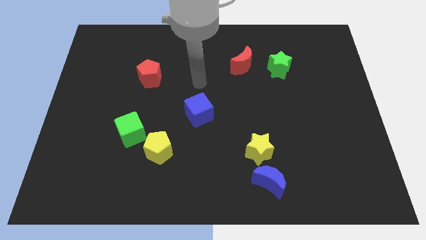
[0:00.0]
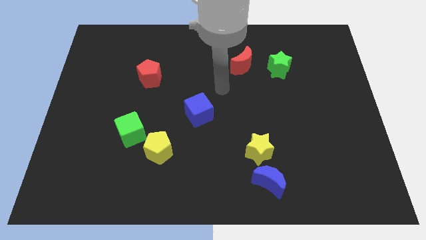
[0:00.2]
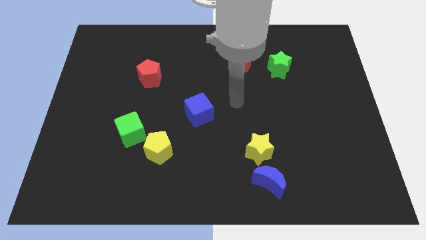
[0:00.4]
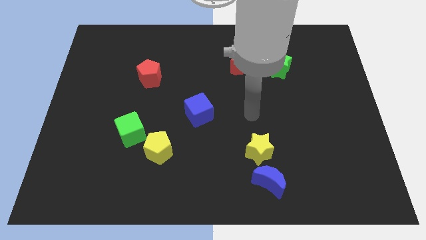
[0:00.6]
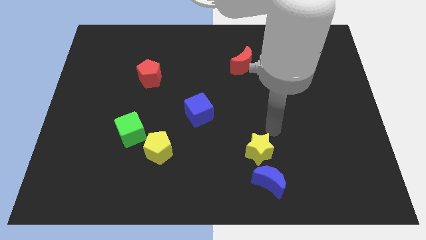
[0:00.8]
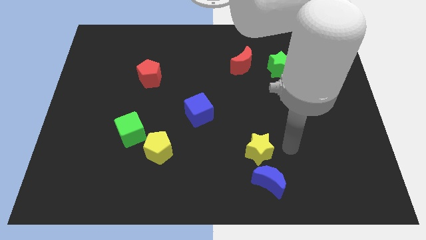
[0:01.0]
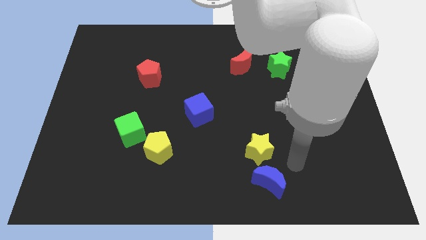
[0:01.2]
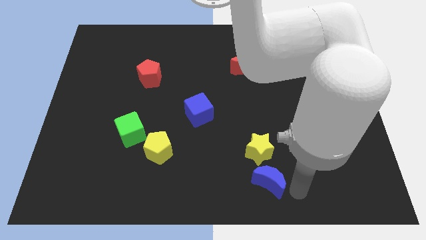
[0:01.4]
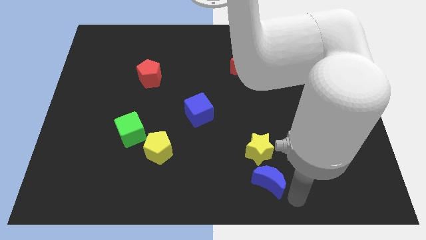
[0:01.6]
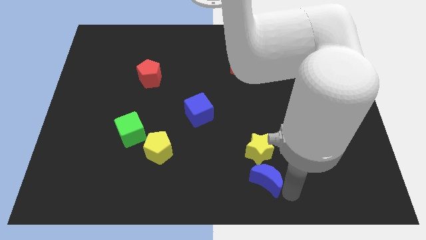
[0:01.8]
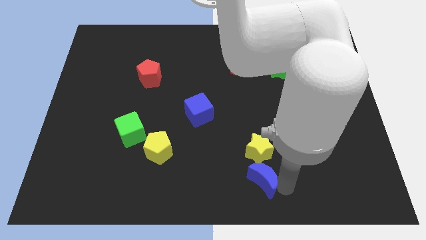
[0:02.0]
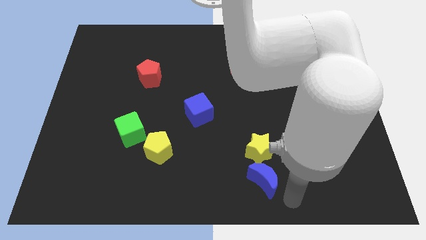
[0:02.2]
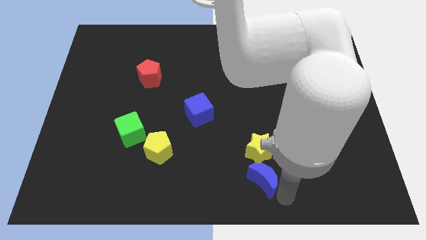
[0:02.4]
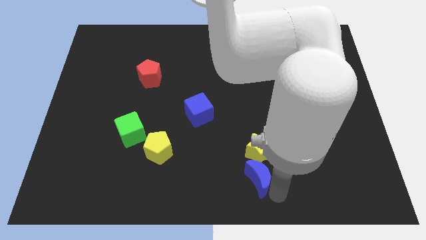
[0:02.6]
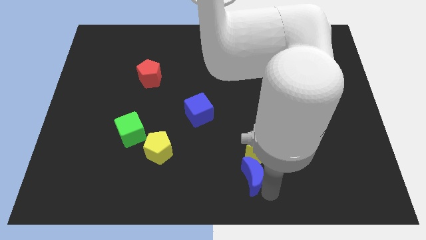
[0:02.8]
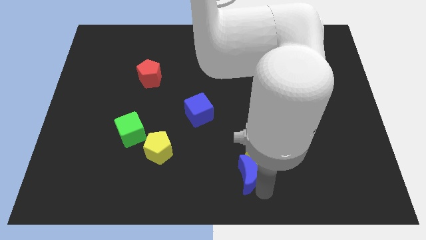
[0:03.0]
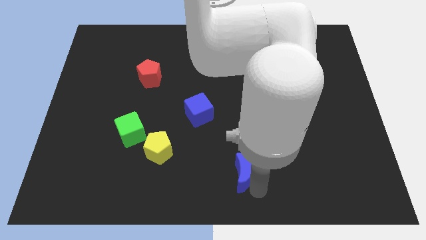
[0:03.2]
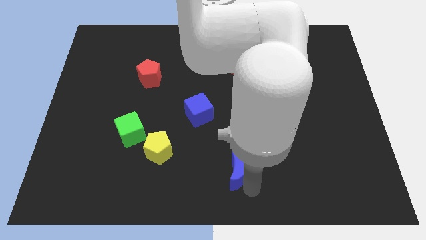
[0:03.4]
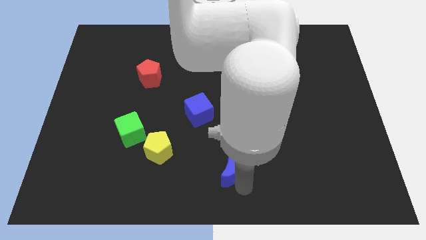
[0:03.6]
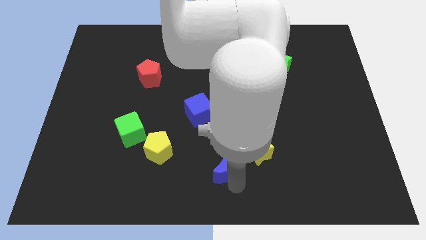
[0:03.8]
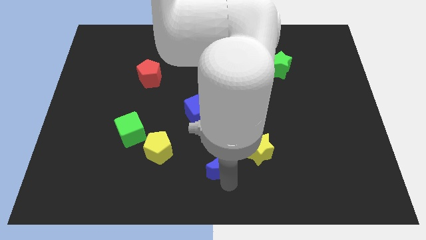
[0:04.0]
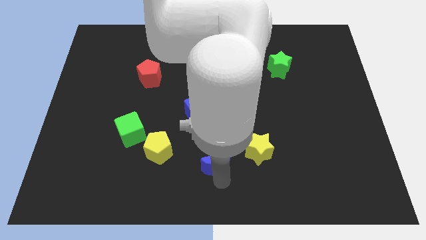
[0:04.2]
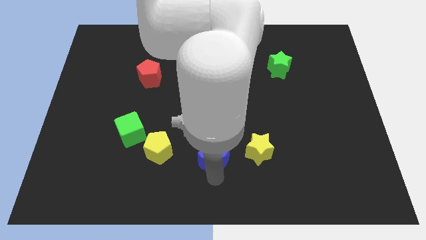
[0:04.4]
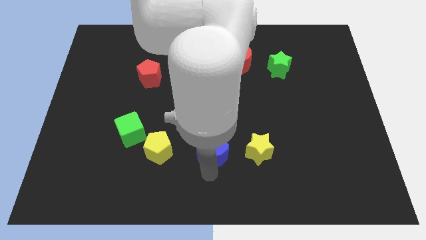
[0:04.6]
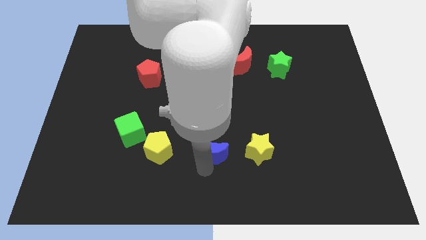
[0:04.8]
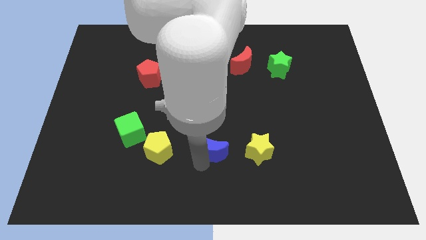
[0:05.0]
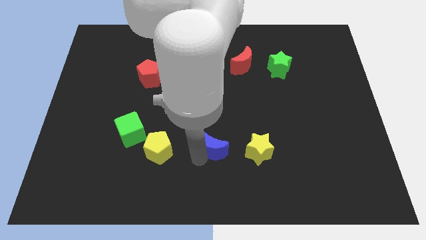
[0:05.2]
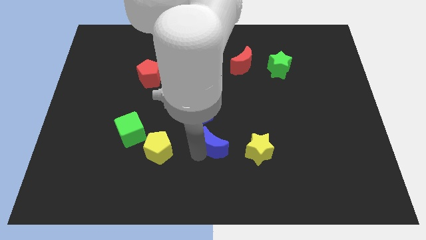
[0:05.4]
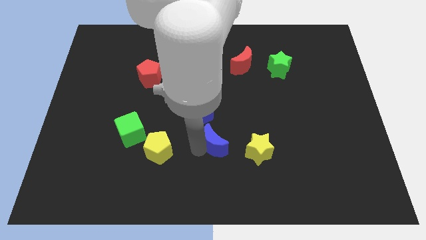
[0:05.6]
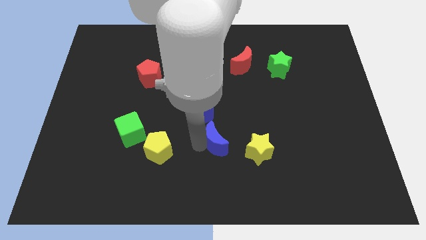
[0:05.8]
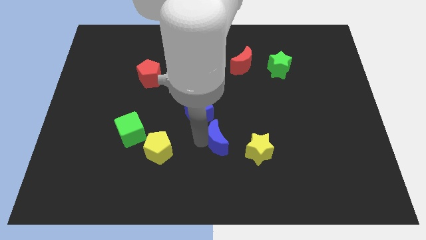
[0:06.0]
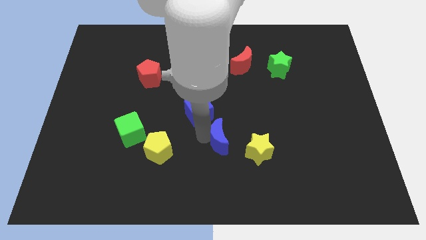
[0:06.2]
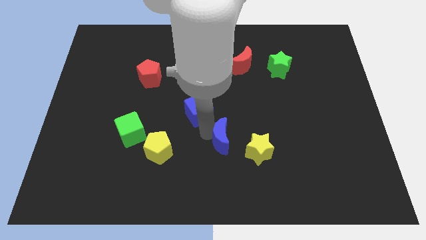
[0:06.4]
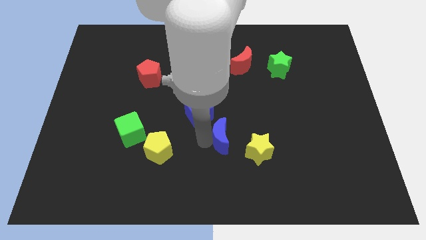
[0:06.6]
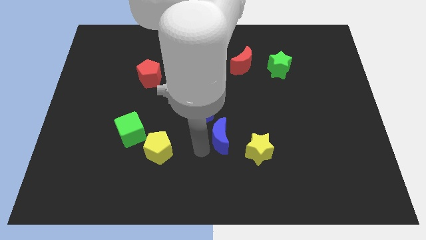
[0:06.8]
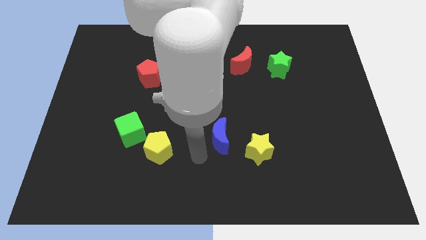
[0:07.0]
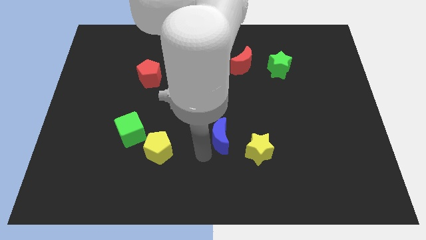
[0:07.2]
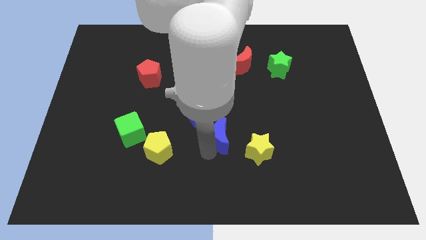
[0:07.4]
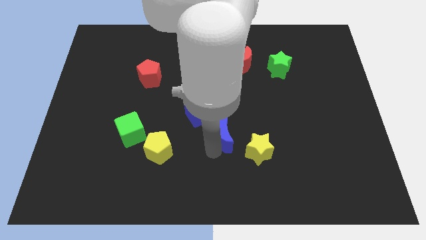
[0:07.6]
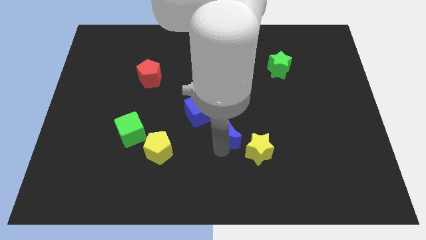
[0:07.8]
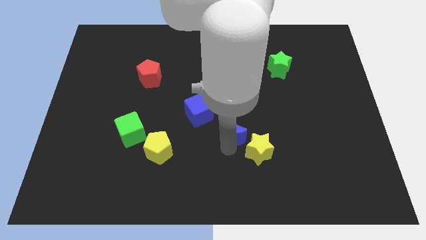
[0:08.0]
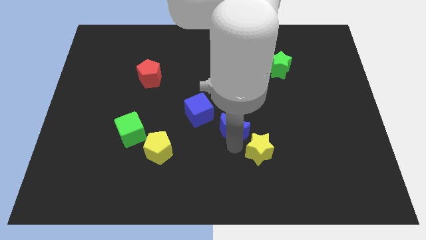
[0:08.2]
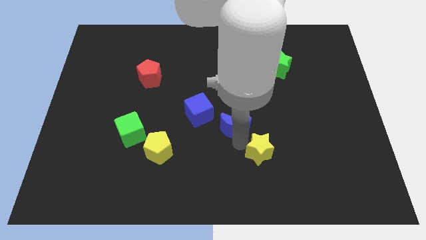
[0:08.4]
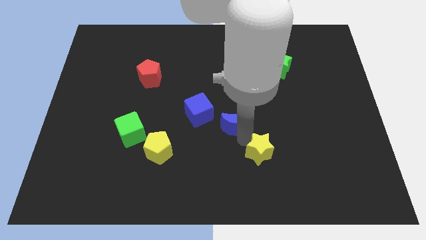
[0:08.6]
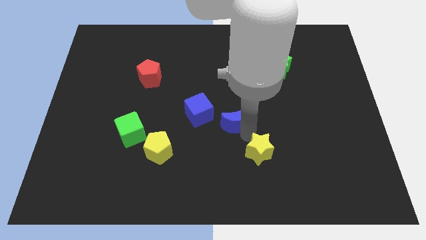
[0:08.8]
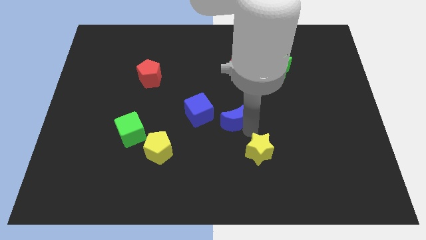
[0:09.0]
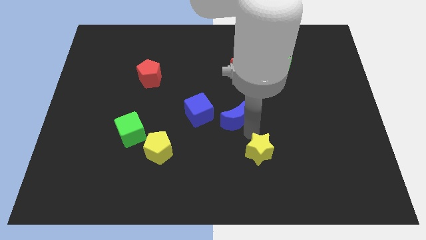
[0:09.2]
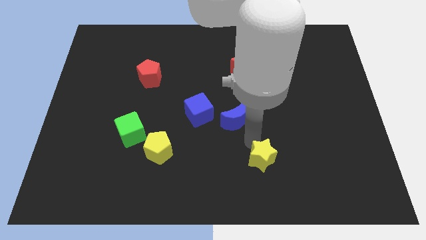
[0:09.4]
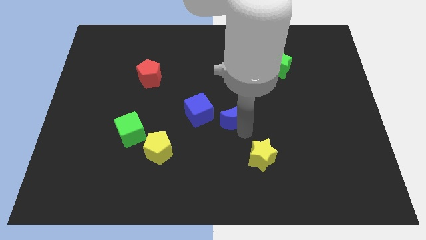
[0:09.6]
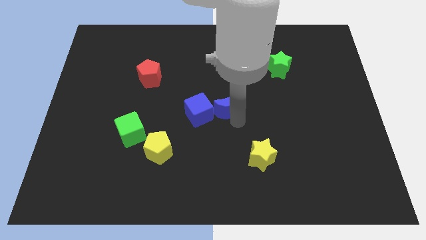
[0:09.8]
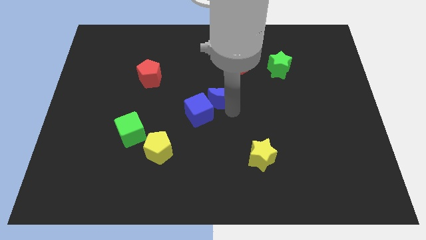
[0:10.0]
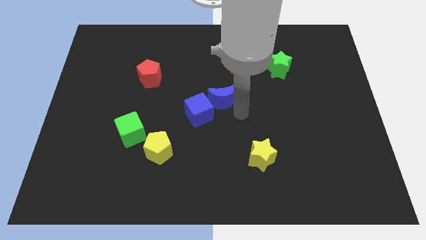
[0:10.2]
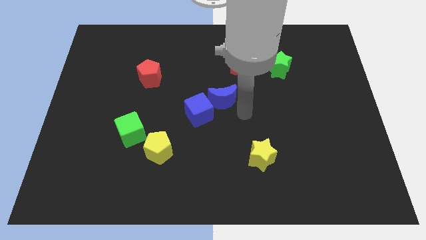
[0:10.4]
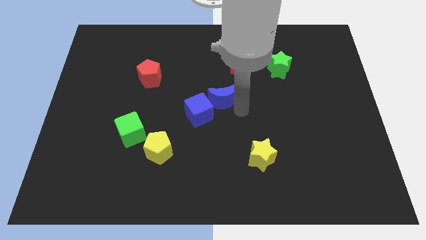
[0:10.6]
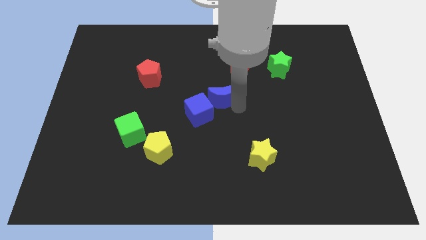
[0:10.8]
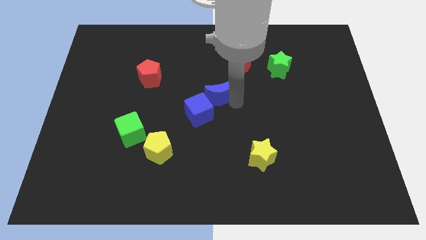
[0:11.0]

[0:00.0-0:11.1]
move the blue moon to the top of the blue cube

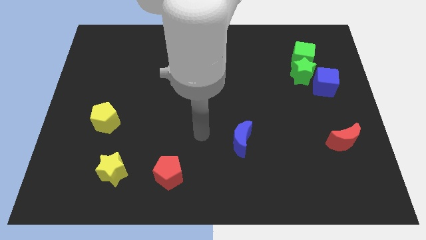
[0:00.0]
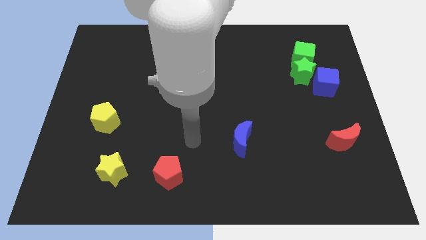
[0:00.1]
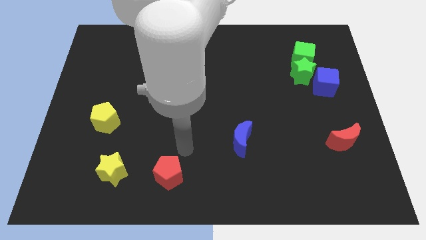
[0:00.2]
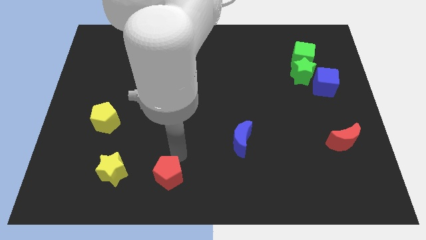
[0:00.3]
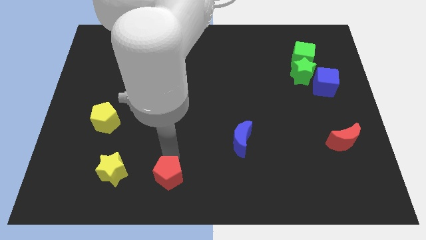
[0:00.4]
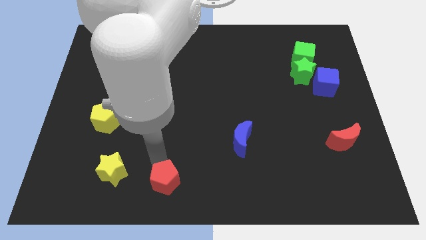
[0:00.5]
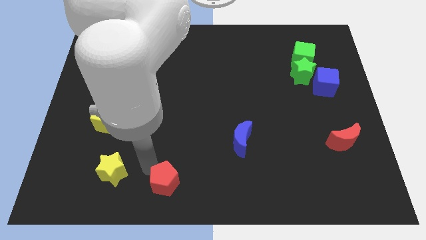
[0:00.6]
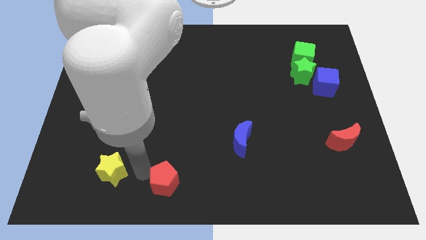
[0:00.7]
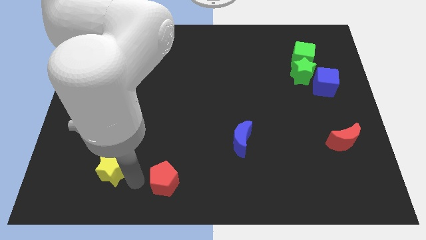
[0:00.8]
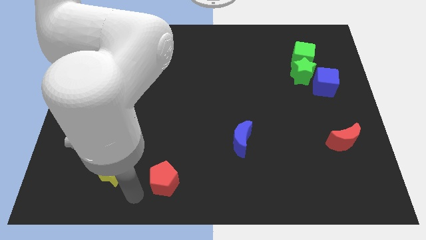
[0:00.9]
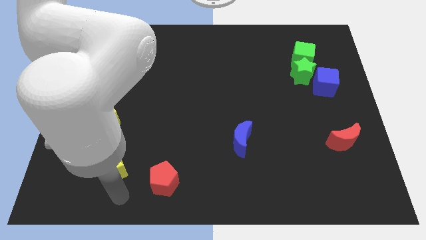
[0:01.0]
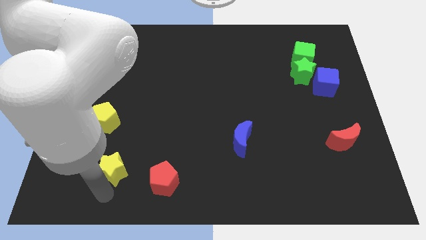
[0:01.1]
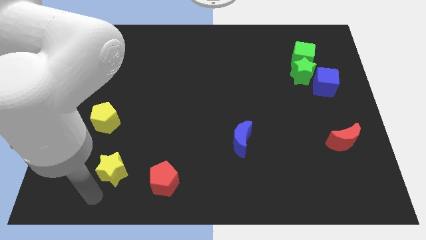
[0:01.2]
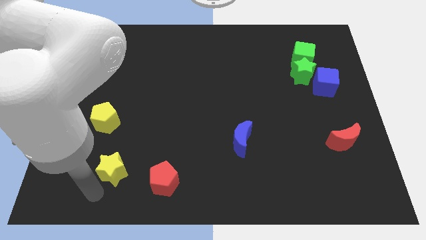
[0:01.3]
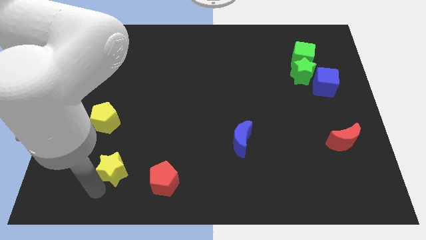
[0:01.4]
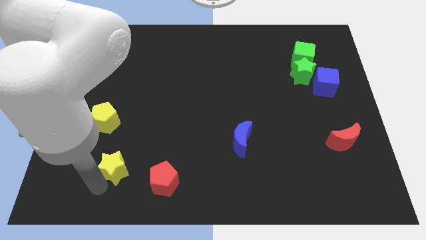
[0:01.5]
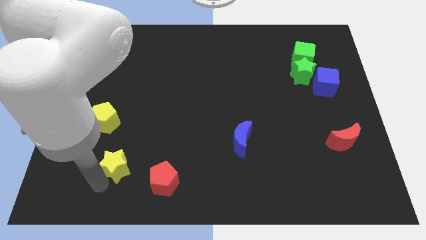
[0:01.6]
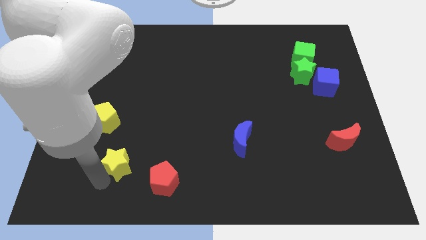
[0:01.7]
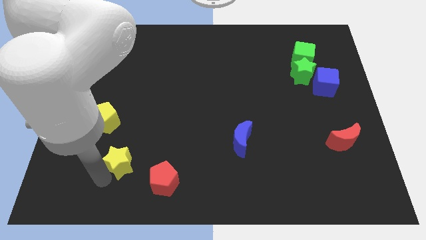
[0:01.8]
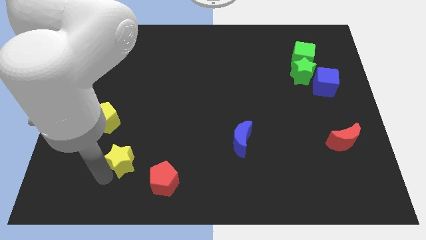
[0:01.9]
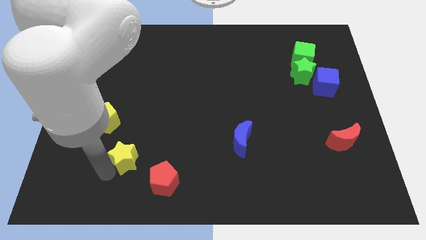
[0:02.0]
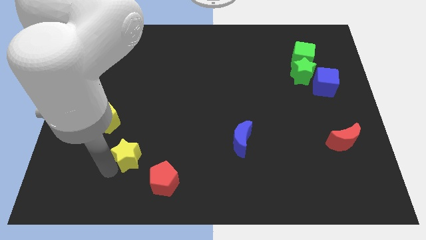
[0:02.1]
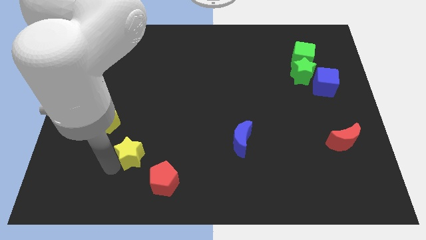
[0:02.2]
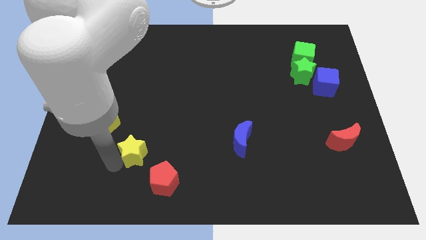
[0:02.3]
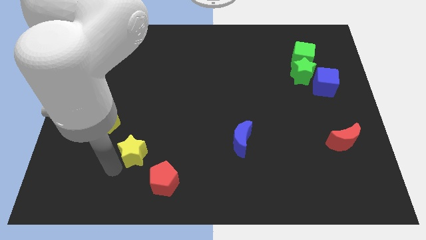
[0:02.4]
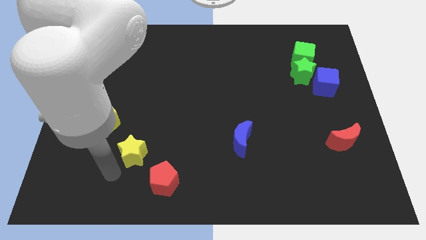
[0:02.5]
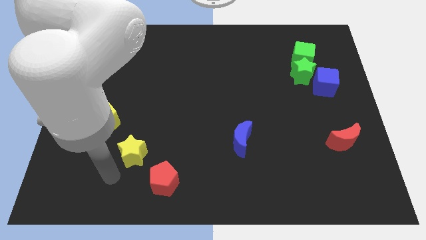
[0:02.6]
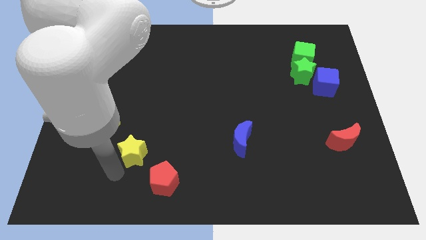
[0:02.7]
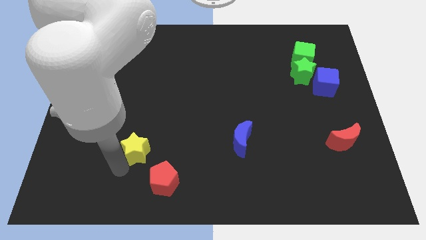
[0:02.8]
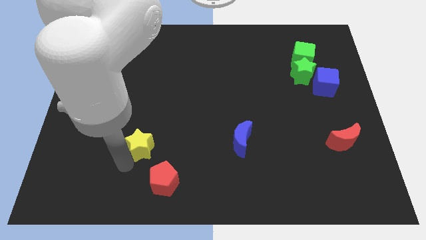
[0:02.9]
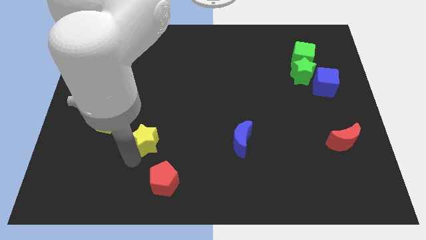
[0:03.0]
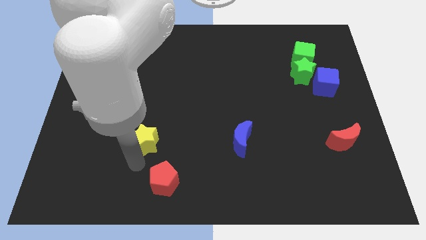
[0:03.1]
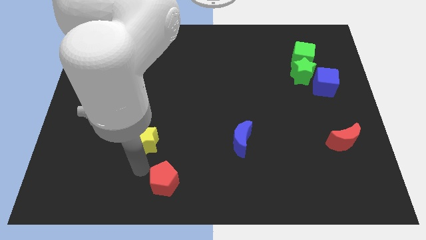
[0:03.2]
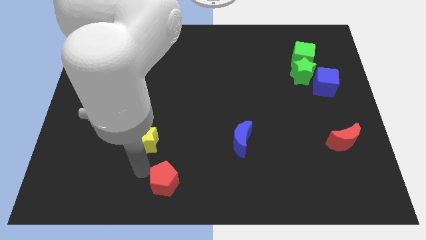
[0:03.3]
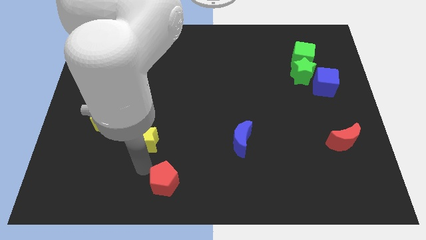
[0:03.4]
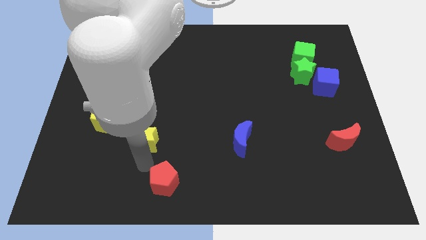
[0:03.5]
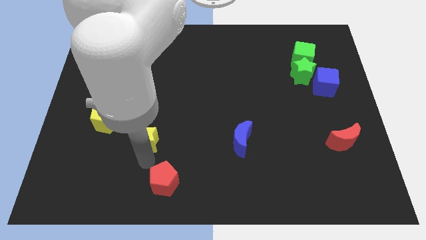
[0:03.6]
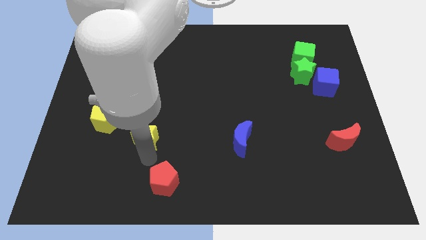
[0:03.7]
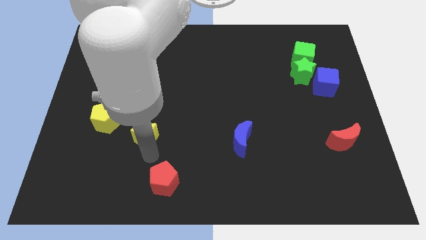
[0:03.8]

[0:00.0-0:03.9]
put the yellow star right of the yellow pentagon
